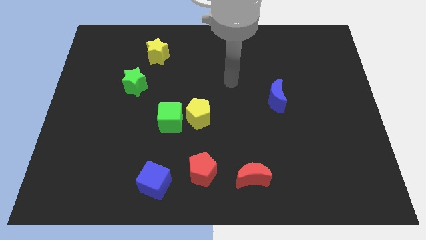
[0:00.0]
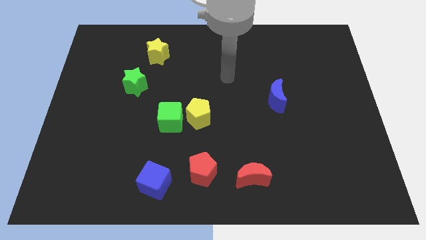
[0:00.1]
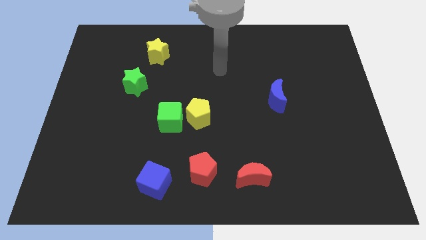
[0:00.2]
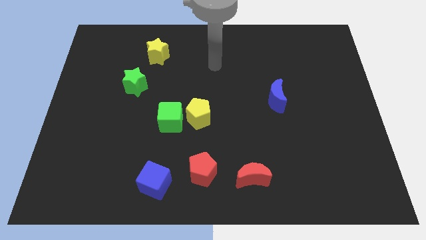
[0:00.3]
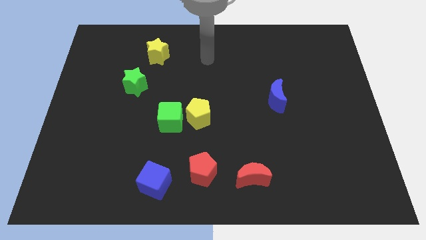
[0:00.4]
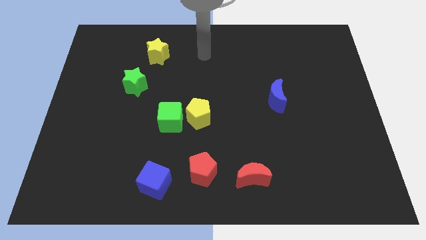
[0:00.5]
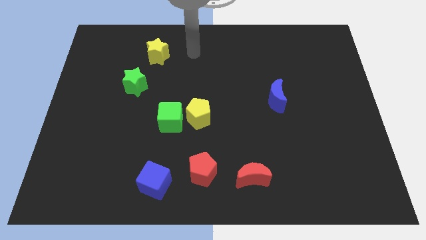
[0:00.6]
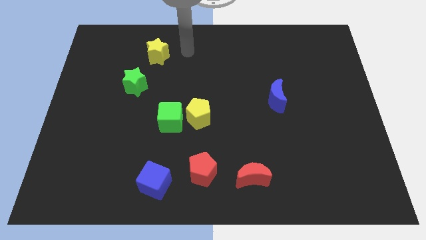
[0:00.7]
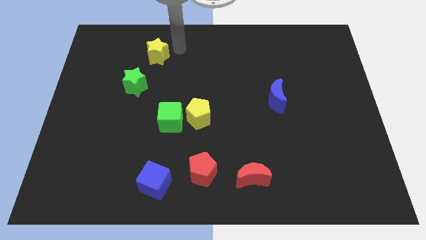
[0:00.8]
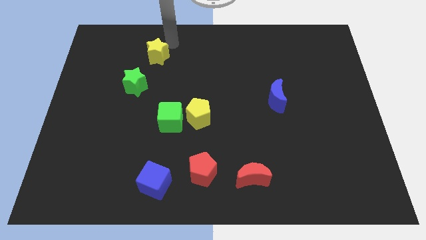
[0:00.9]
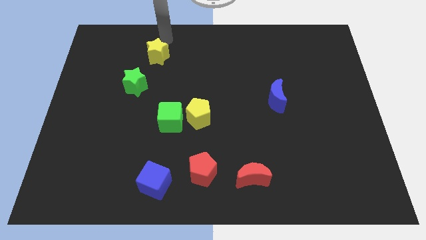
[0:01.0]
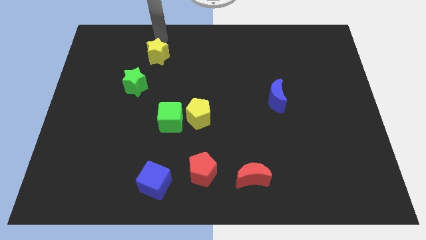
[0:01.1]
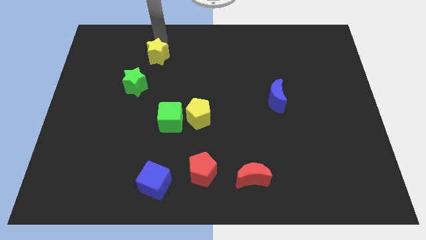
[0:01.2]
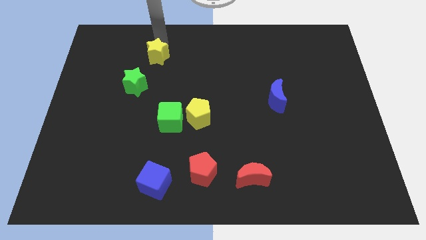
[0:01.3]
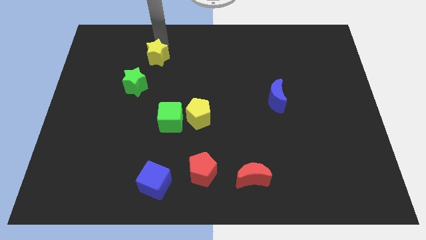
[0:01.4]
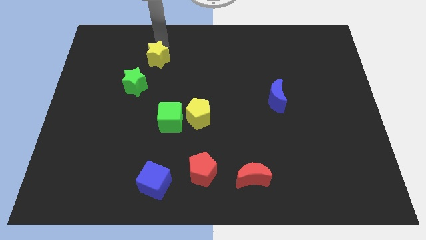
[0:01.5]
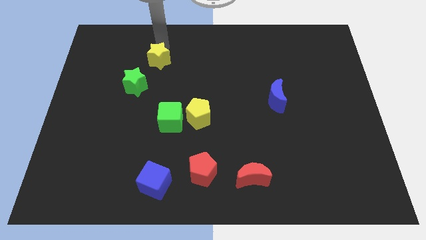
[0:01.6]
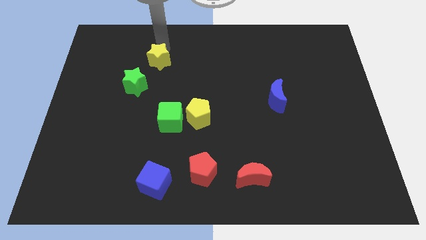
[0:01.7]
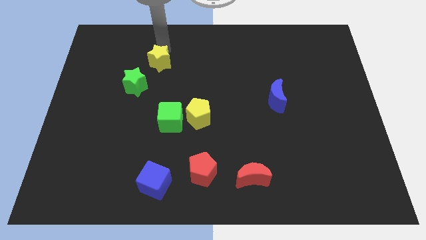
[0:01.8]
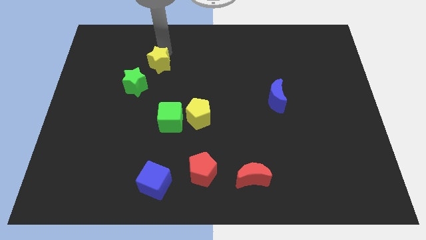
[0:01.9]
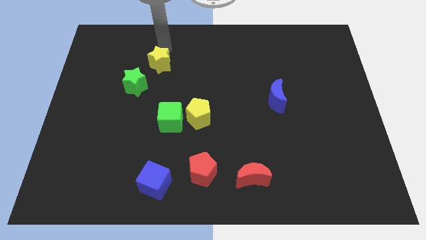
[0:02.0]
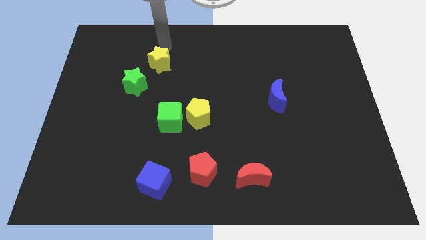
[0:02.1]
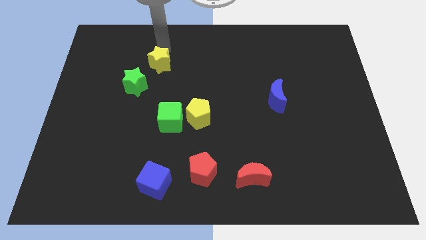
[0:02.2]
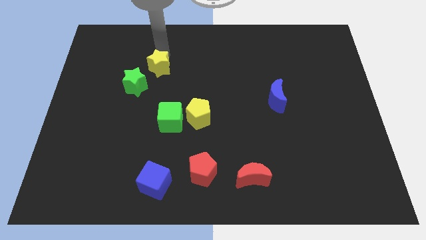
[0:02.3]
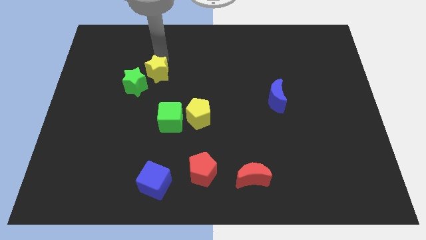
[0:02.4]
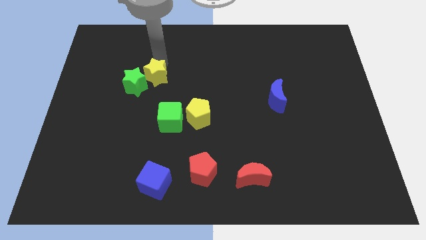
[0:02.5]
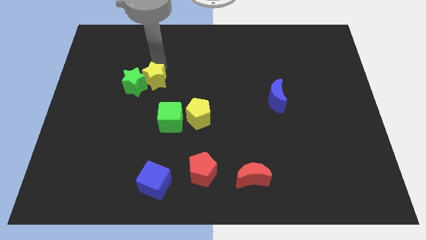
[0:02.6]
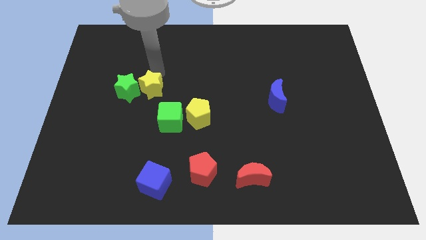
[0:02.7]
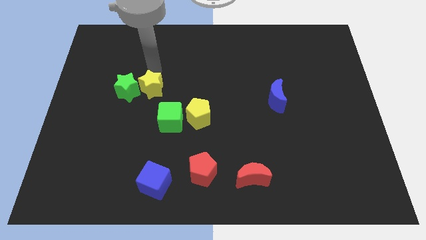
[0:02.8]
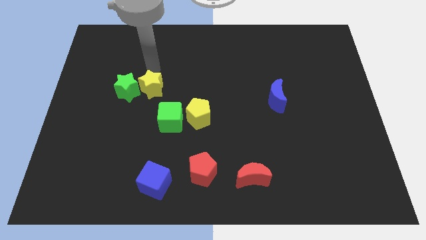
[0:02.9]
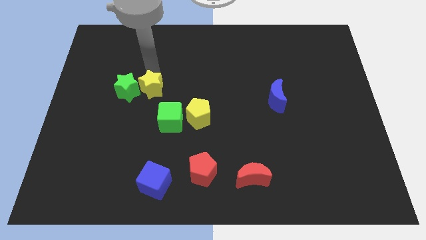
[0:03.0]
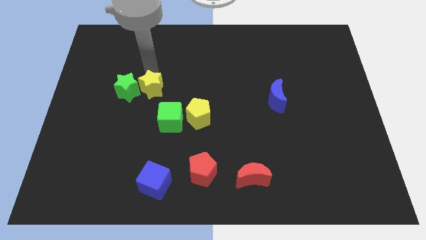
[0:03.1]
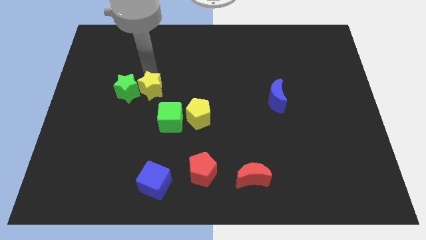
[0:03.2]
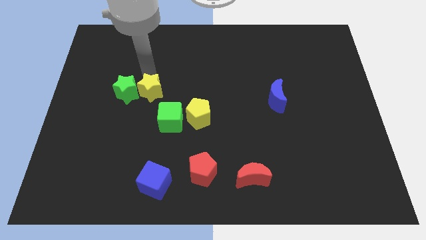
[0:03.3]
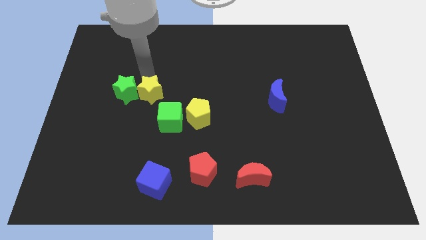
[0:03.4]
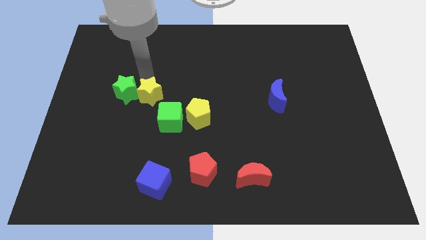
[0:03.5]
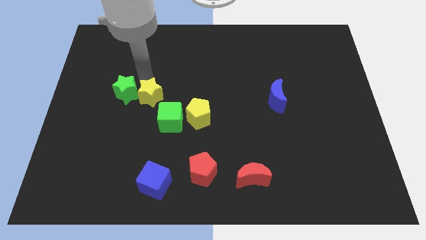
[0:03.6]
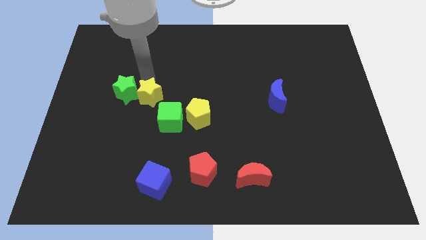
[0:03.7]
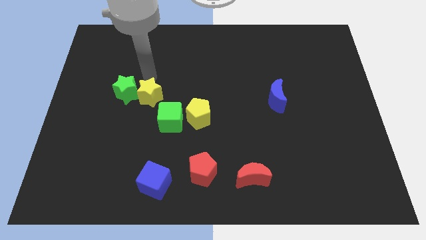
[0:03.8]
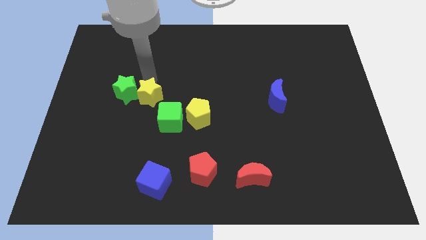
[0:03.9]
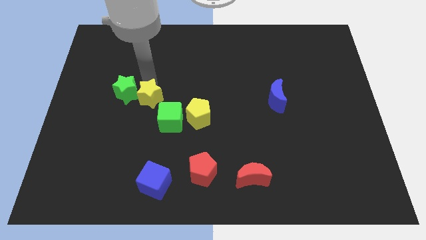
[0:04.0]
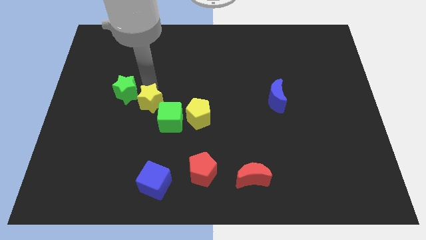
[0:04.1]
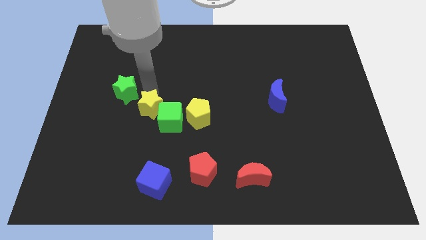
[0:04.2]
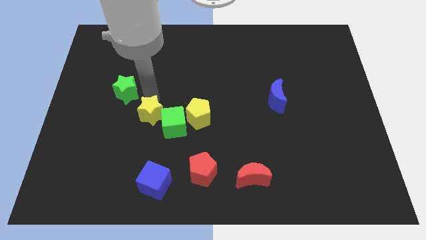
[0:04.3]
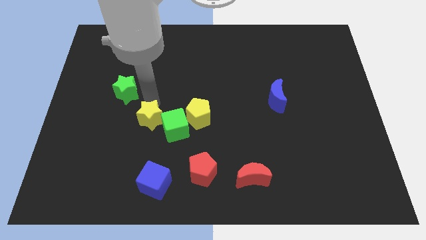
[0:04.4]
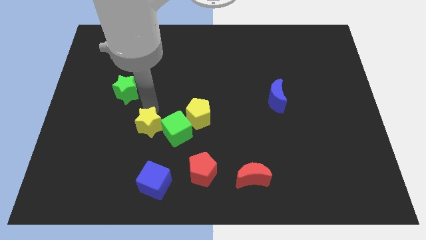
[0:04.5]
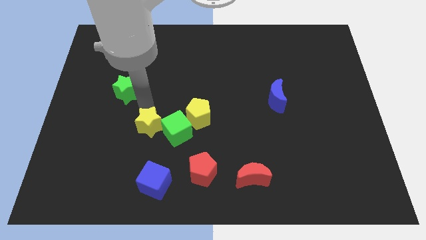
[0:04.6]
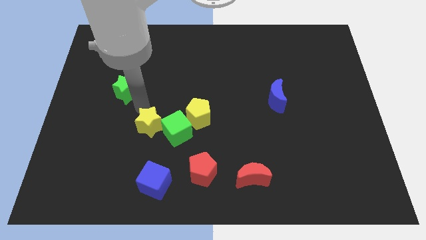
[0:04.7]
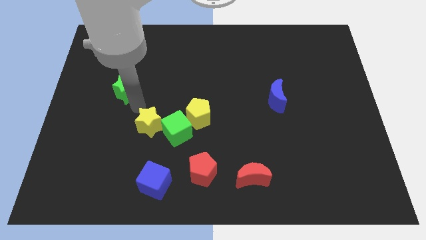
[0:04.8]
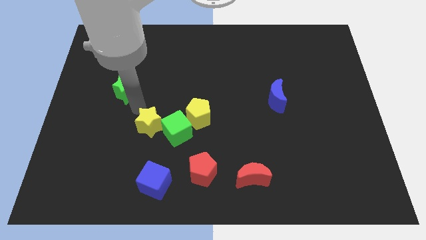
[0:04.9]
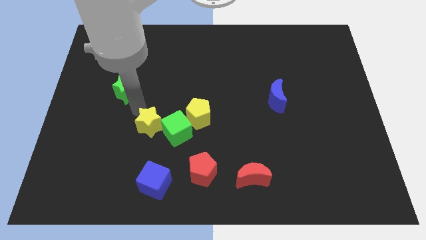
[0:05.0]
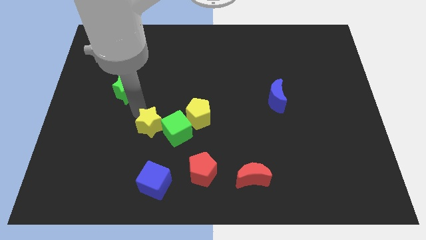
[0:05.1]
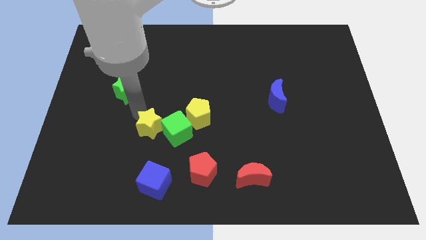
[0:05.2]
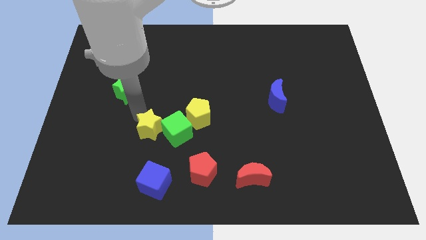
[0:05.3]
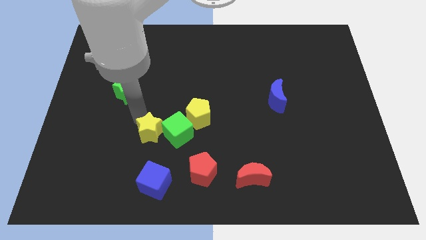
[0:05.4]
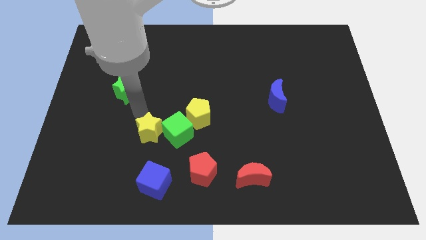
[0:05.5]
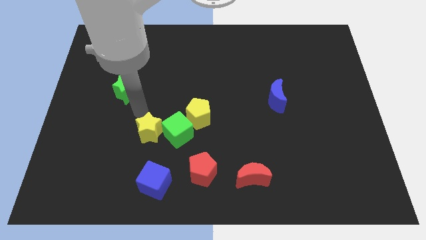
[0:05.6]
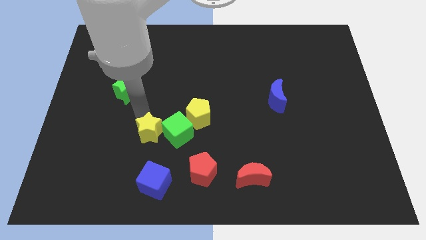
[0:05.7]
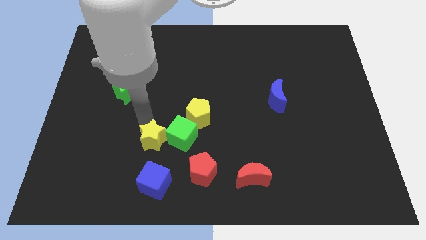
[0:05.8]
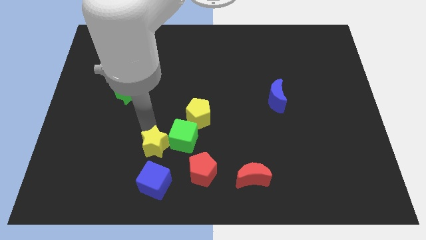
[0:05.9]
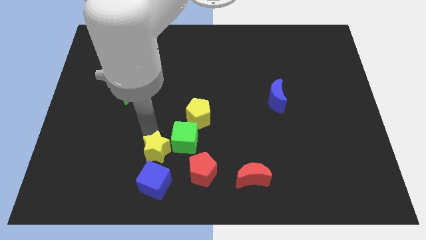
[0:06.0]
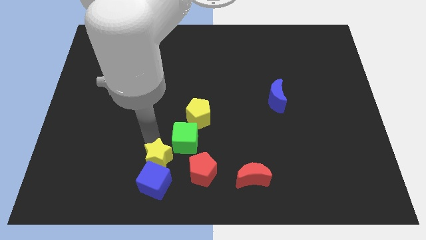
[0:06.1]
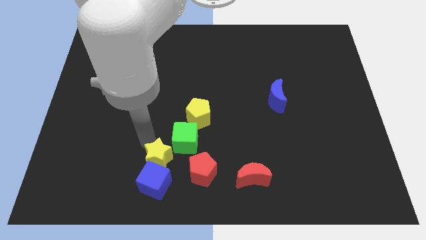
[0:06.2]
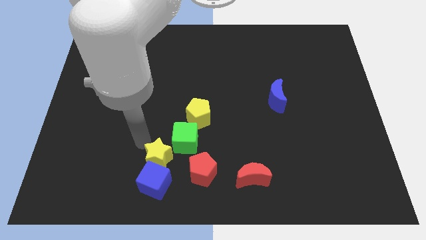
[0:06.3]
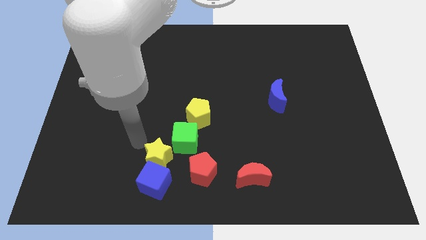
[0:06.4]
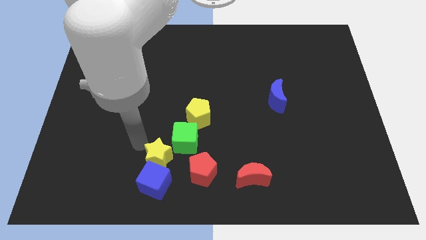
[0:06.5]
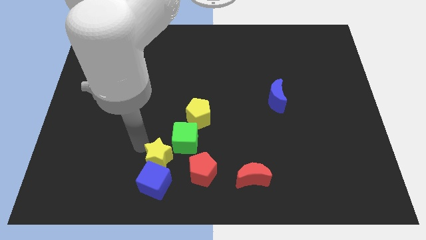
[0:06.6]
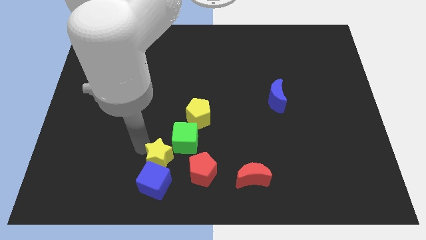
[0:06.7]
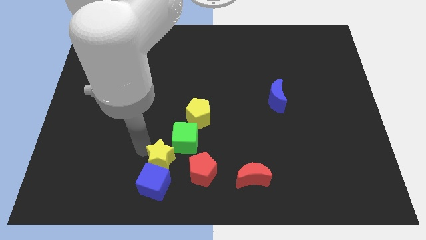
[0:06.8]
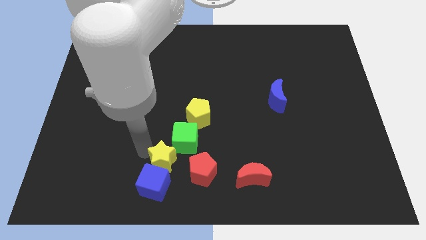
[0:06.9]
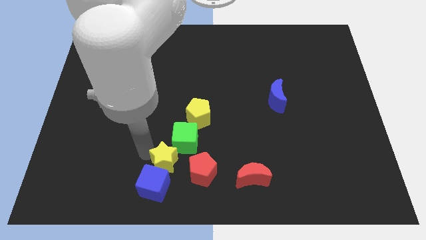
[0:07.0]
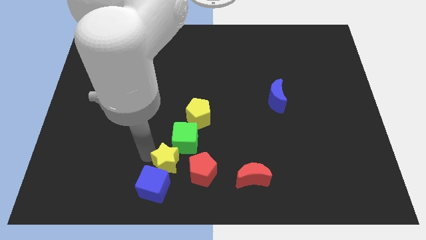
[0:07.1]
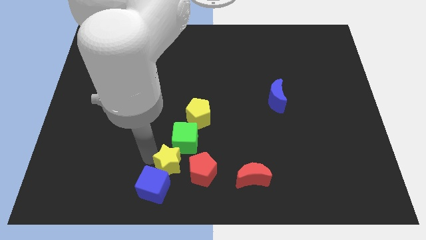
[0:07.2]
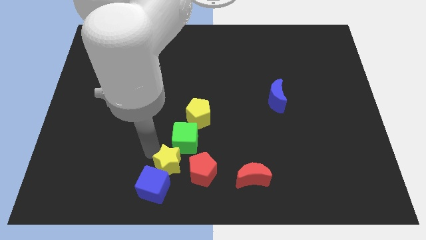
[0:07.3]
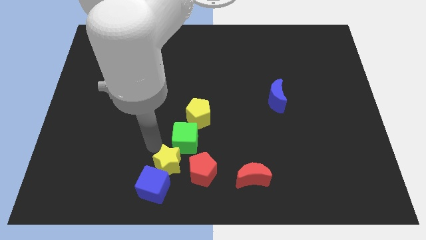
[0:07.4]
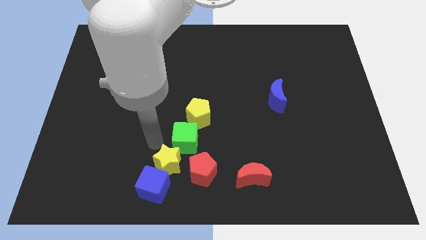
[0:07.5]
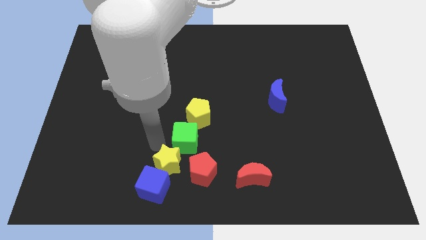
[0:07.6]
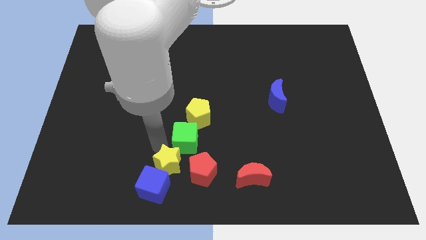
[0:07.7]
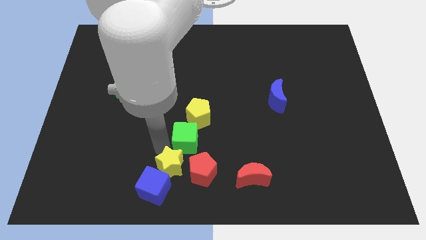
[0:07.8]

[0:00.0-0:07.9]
put the yellow star to the bottom side
